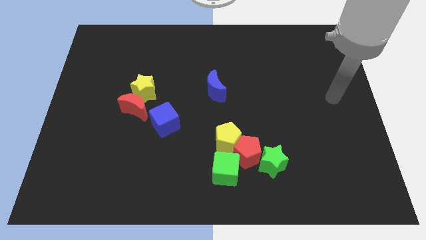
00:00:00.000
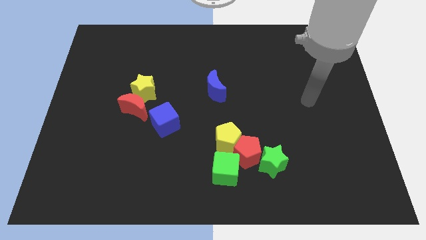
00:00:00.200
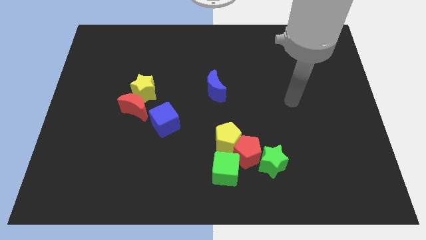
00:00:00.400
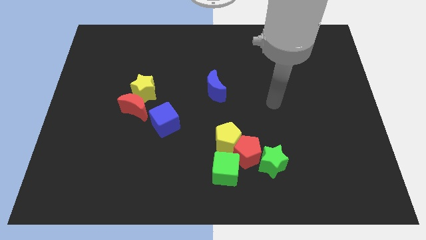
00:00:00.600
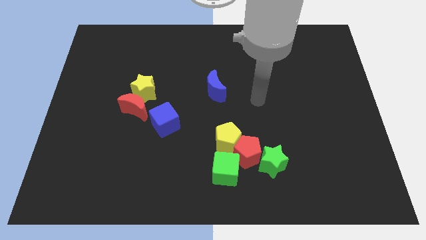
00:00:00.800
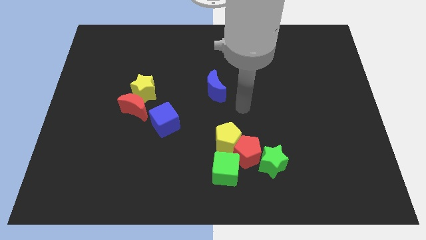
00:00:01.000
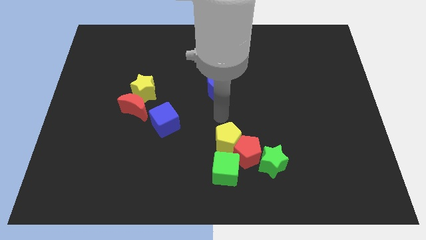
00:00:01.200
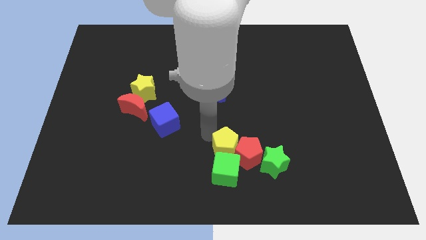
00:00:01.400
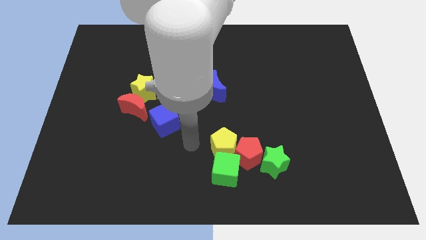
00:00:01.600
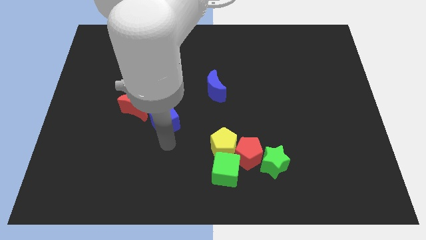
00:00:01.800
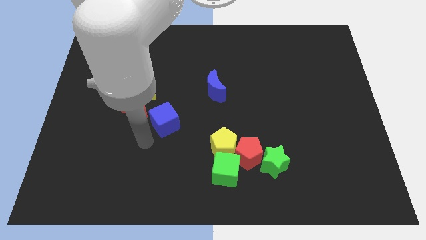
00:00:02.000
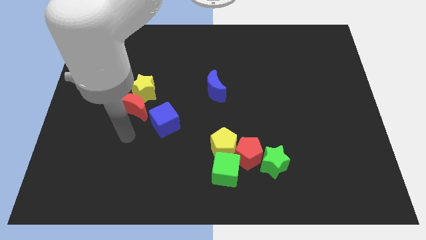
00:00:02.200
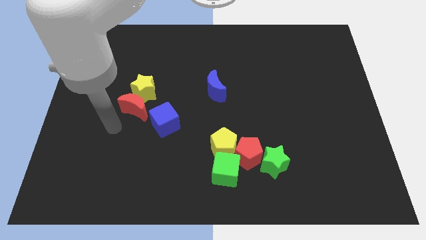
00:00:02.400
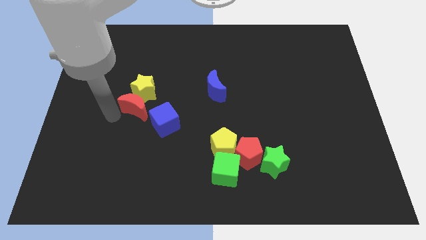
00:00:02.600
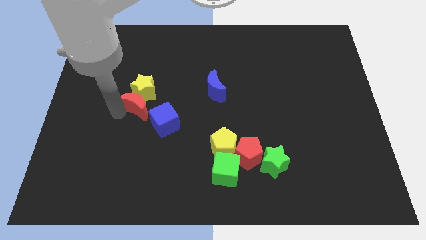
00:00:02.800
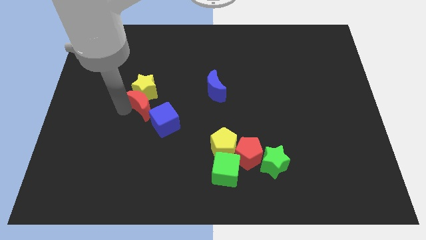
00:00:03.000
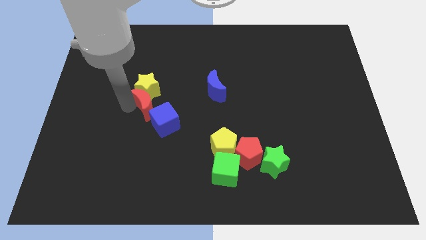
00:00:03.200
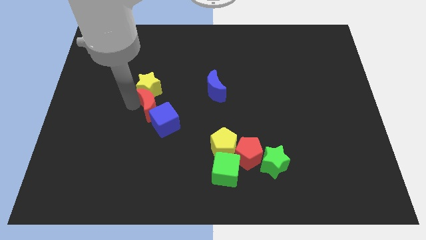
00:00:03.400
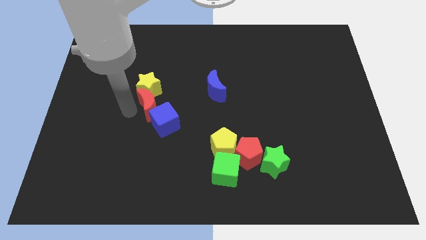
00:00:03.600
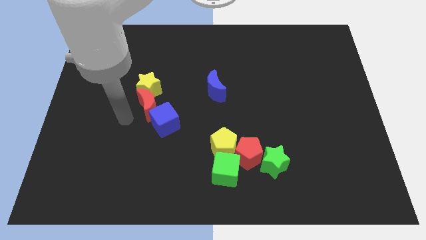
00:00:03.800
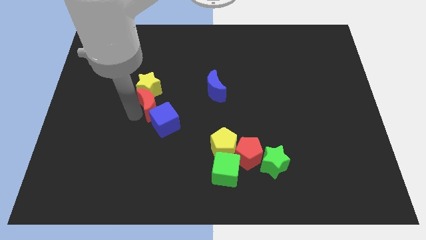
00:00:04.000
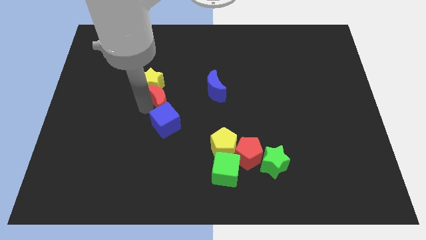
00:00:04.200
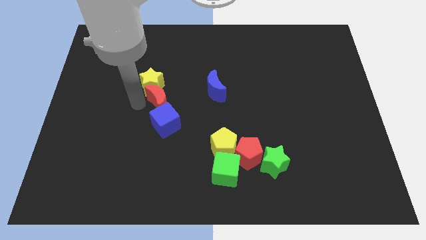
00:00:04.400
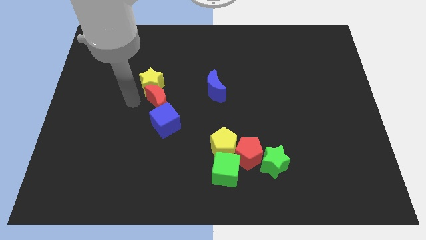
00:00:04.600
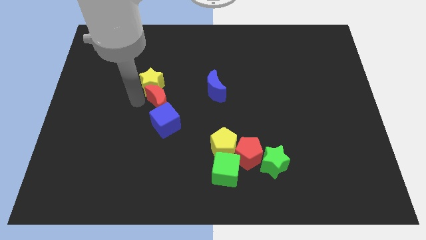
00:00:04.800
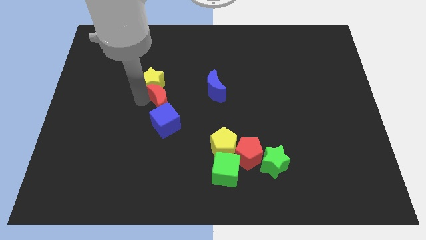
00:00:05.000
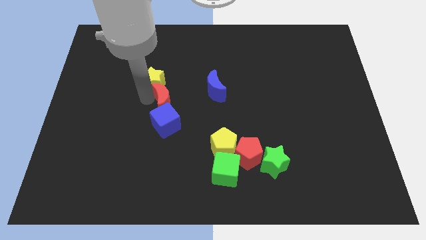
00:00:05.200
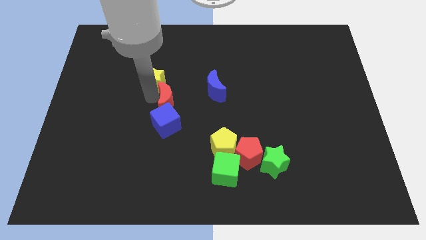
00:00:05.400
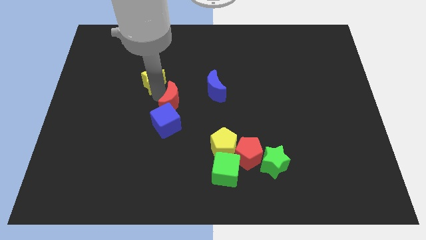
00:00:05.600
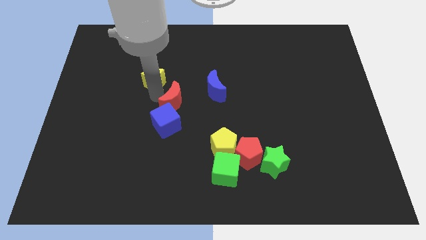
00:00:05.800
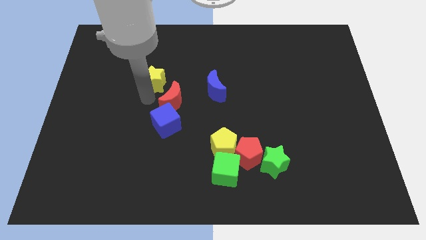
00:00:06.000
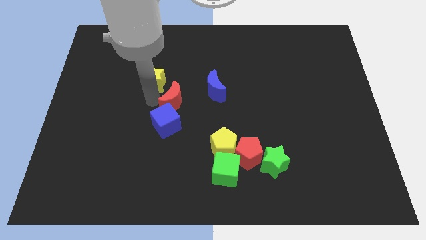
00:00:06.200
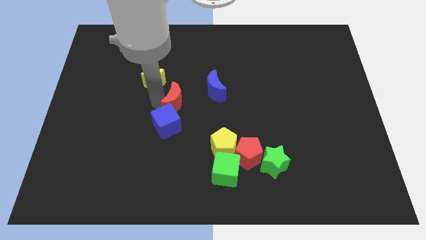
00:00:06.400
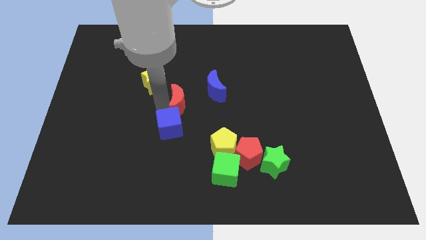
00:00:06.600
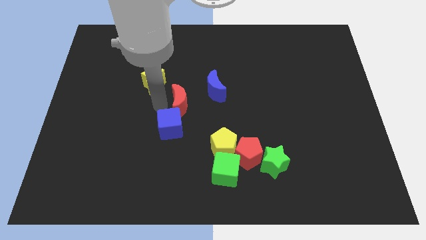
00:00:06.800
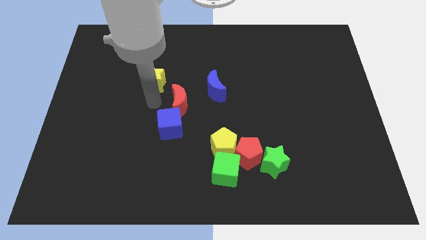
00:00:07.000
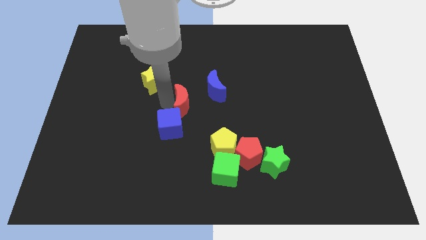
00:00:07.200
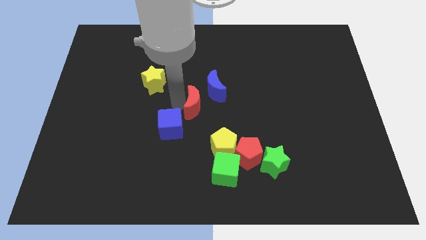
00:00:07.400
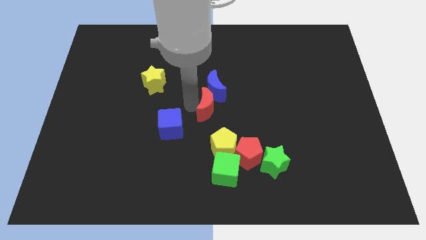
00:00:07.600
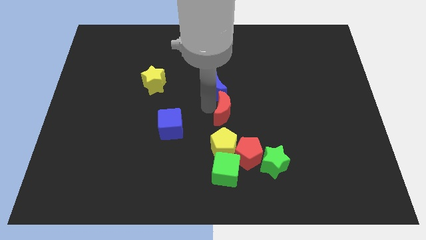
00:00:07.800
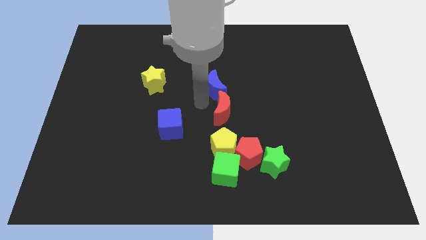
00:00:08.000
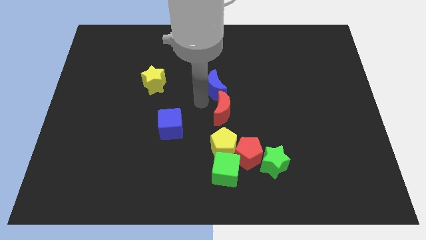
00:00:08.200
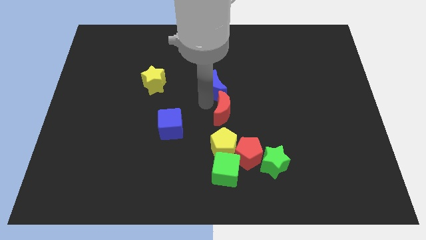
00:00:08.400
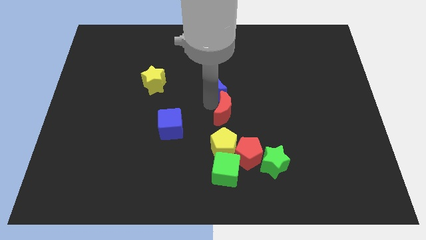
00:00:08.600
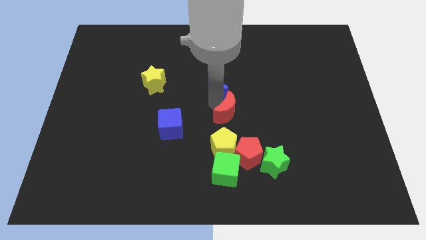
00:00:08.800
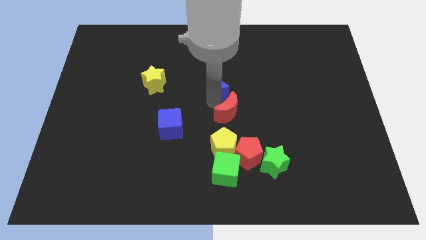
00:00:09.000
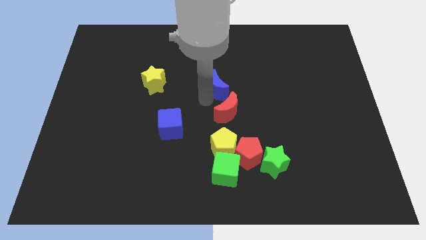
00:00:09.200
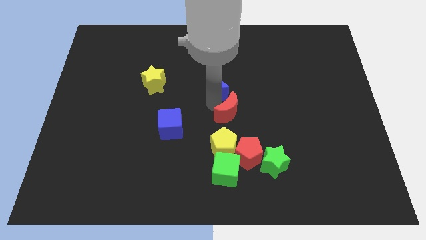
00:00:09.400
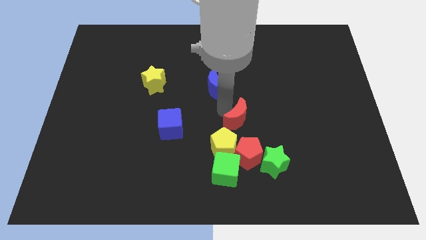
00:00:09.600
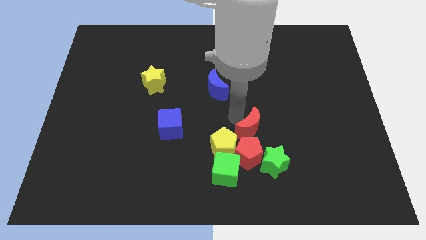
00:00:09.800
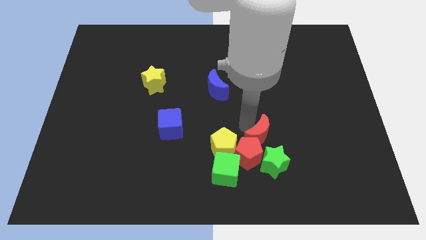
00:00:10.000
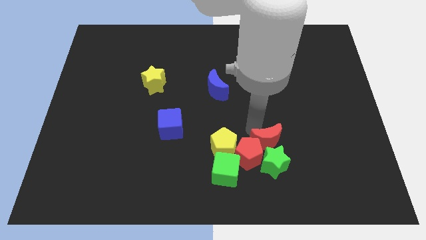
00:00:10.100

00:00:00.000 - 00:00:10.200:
push the red moon to the green star

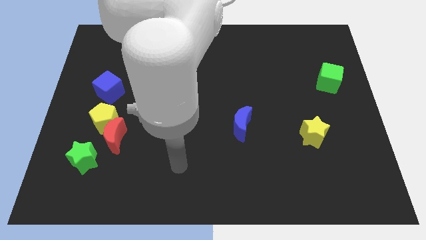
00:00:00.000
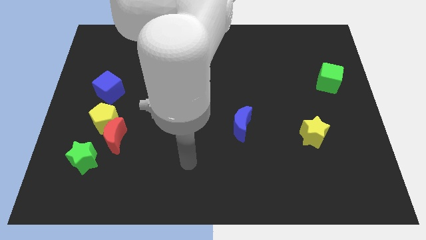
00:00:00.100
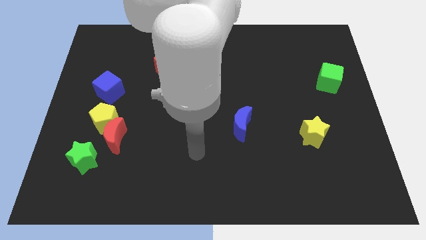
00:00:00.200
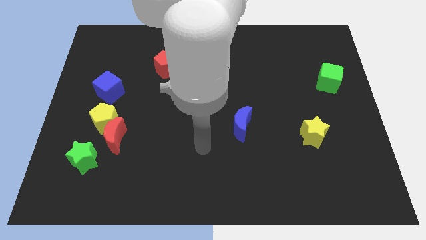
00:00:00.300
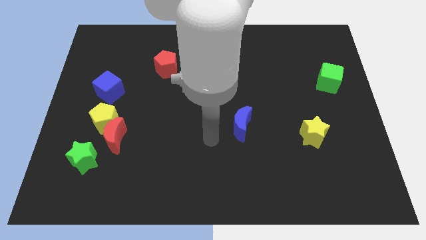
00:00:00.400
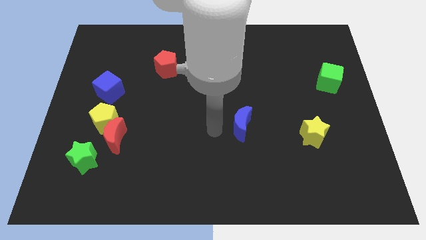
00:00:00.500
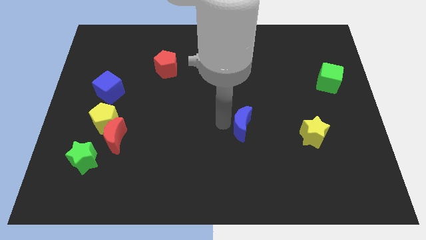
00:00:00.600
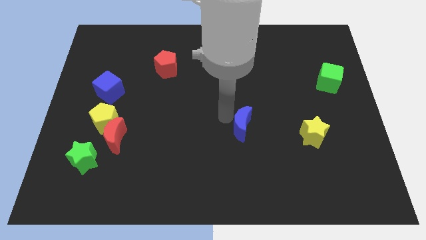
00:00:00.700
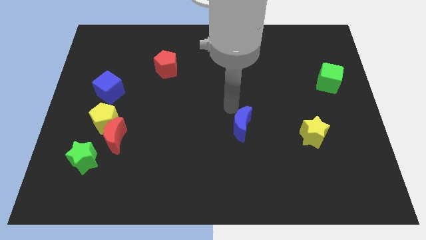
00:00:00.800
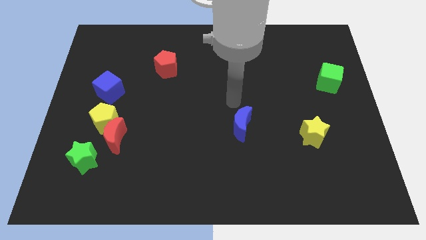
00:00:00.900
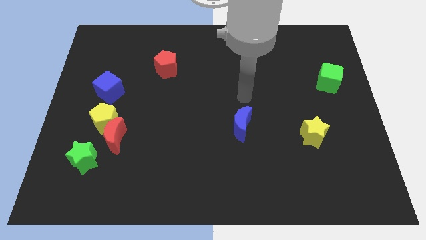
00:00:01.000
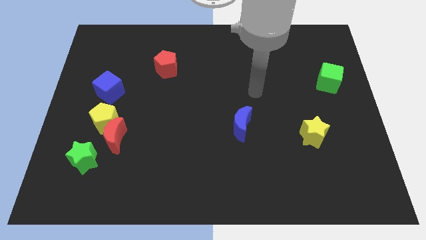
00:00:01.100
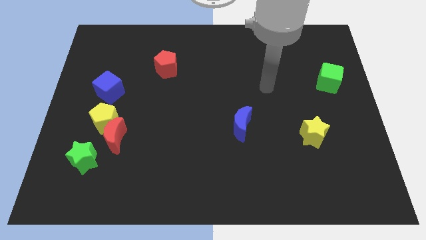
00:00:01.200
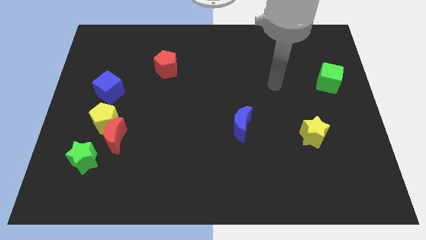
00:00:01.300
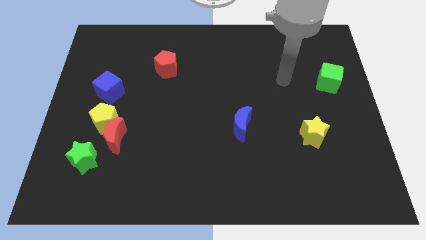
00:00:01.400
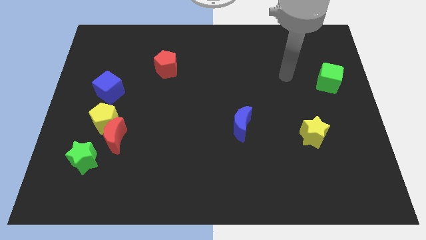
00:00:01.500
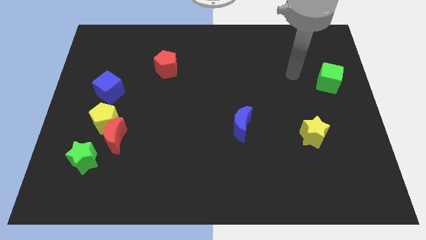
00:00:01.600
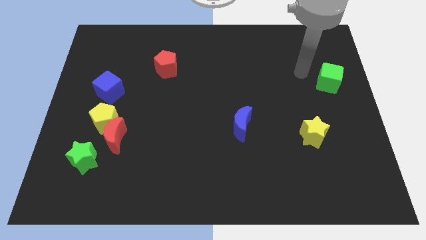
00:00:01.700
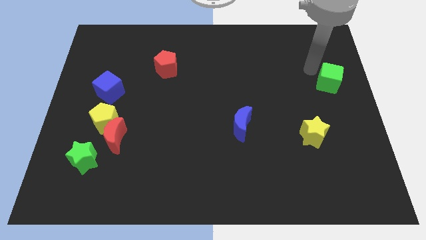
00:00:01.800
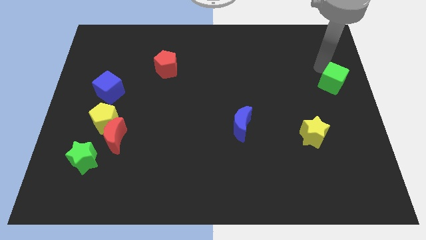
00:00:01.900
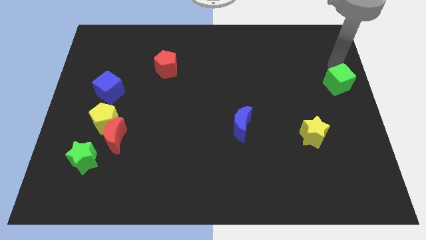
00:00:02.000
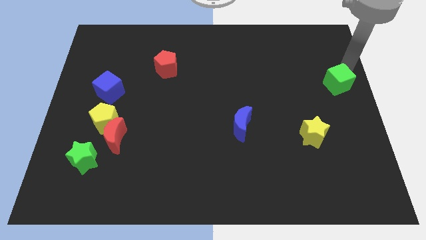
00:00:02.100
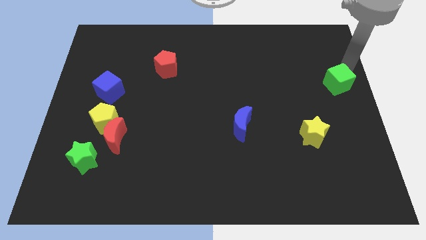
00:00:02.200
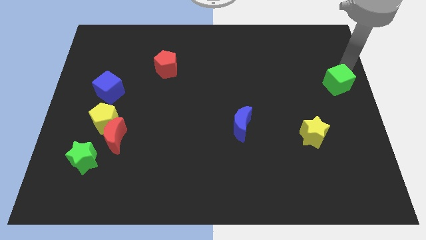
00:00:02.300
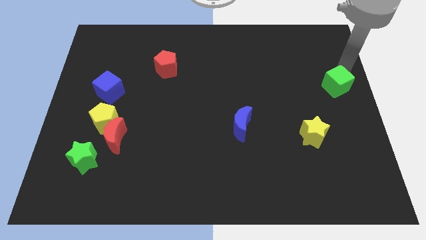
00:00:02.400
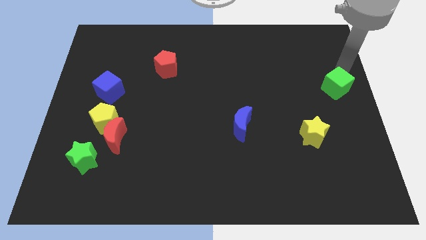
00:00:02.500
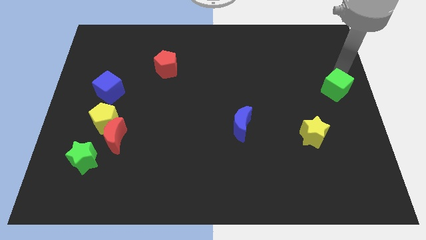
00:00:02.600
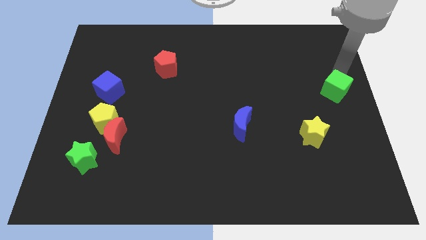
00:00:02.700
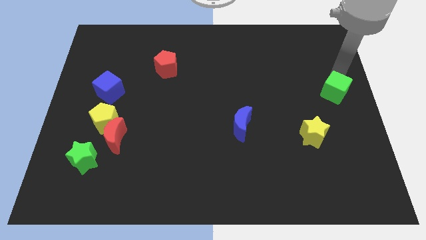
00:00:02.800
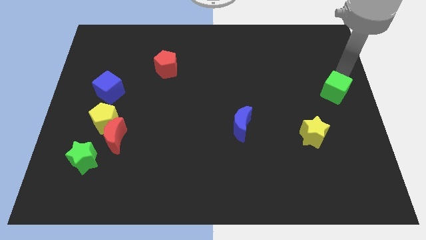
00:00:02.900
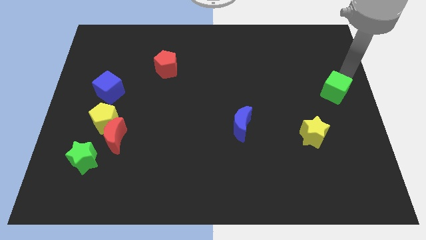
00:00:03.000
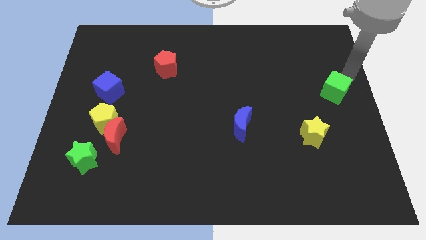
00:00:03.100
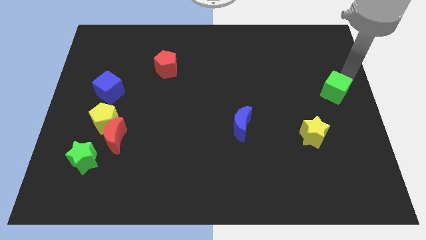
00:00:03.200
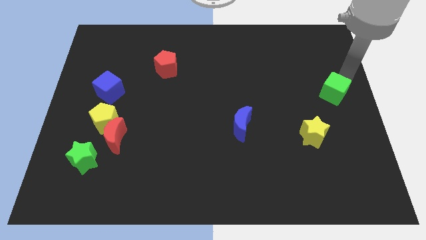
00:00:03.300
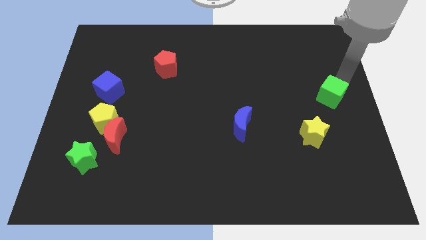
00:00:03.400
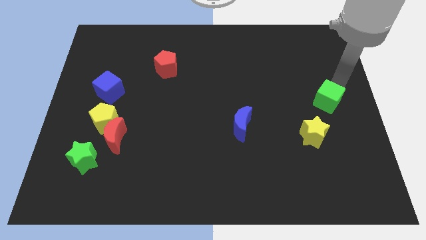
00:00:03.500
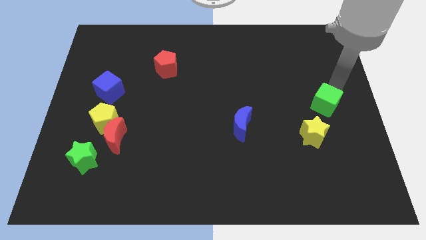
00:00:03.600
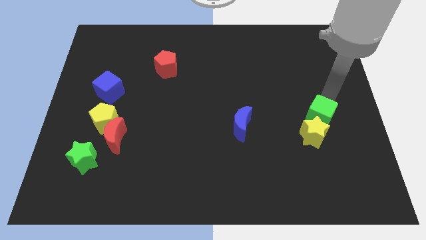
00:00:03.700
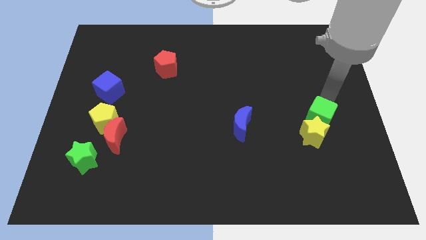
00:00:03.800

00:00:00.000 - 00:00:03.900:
move the green cube to the yellow star
